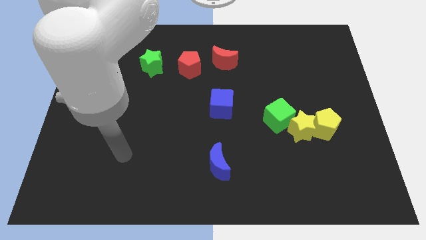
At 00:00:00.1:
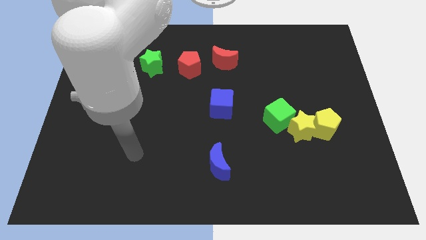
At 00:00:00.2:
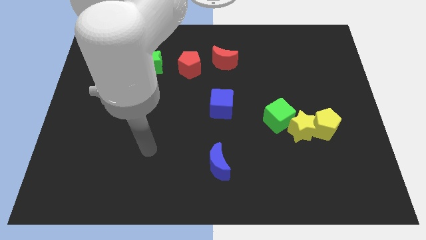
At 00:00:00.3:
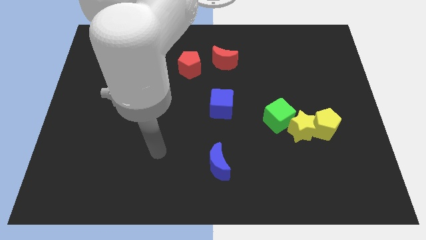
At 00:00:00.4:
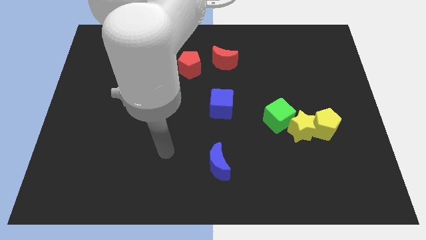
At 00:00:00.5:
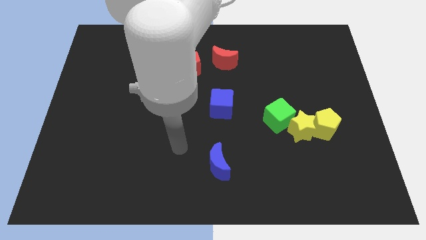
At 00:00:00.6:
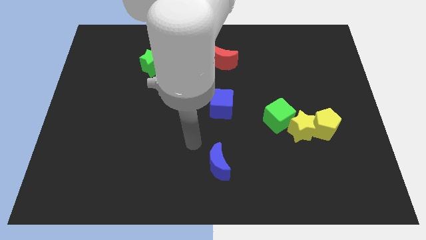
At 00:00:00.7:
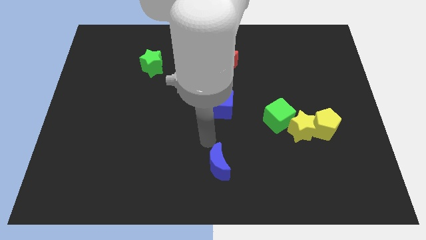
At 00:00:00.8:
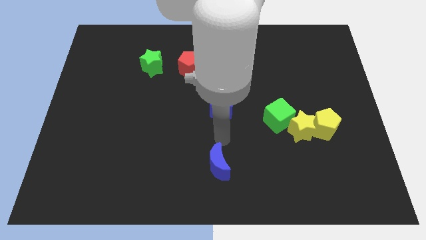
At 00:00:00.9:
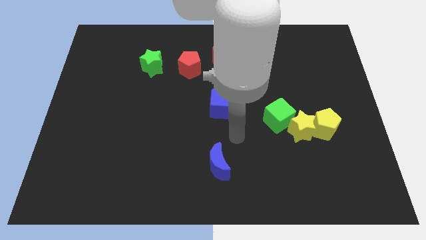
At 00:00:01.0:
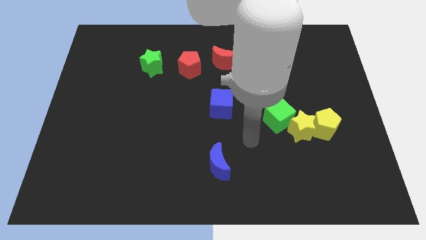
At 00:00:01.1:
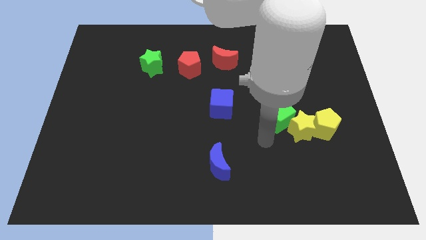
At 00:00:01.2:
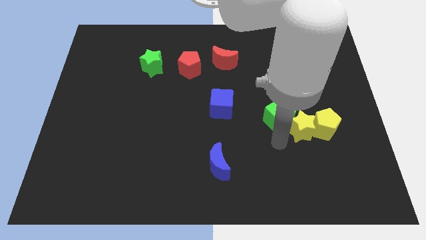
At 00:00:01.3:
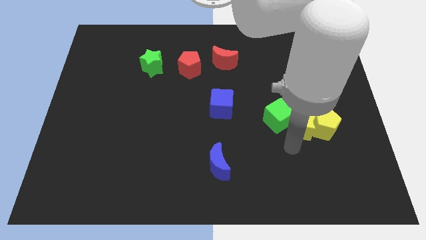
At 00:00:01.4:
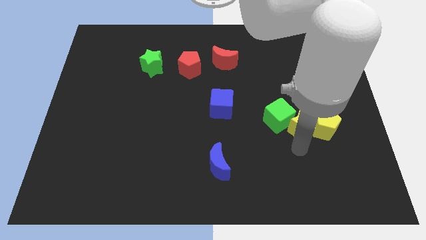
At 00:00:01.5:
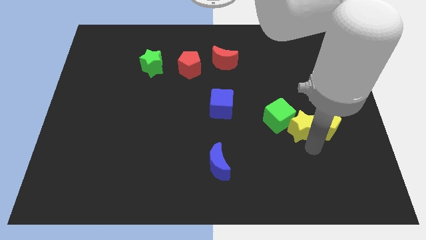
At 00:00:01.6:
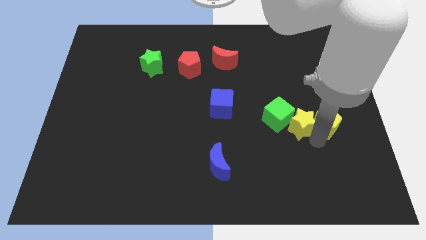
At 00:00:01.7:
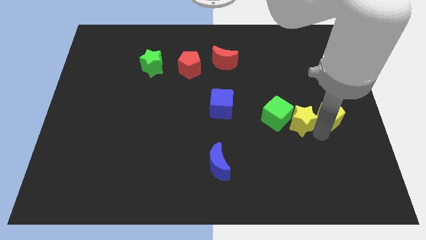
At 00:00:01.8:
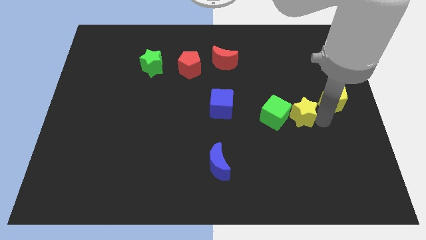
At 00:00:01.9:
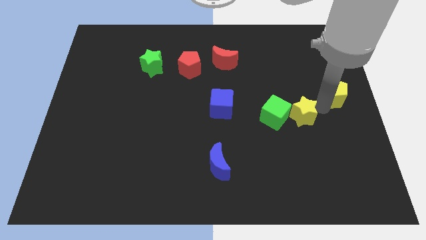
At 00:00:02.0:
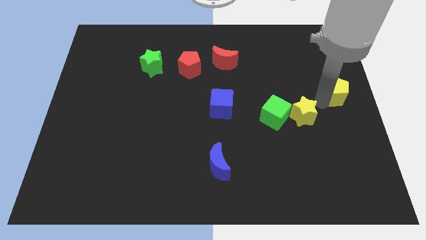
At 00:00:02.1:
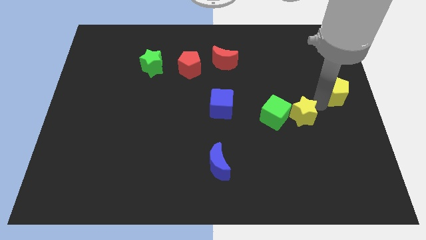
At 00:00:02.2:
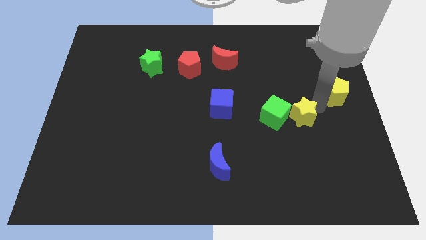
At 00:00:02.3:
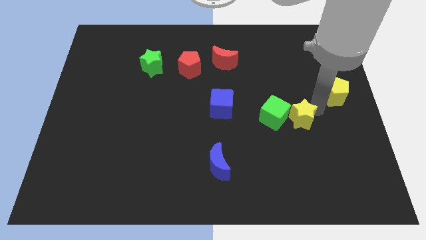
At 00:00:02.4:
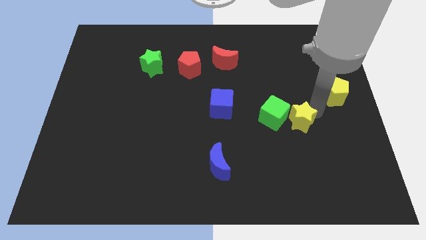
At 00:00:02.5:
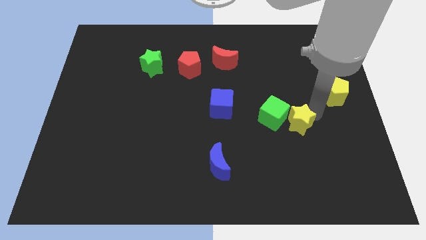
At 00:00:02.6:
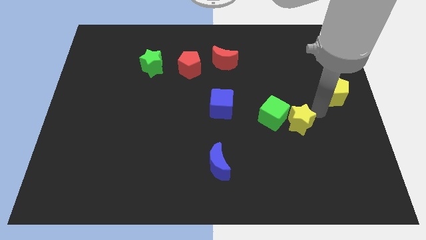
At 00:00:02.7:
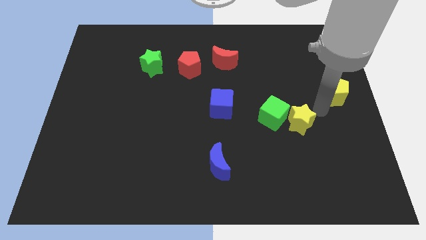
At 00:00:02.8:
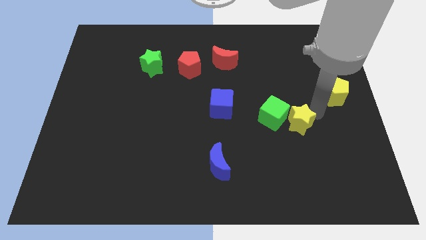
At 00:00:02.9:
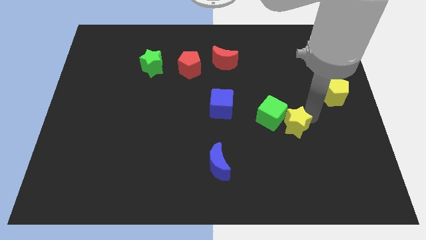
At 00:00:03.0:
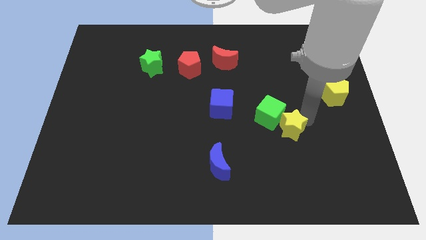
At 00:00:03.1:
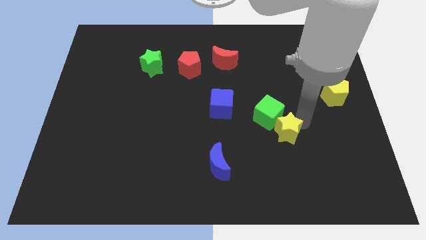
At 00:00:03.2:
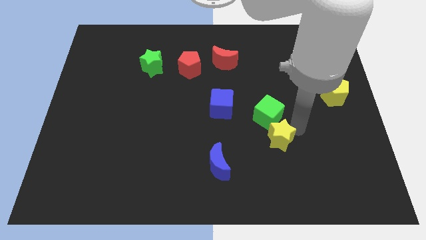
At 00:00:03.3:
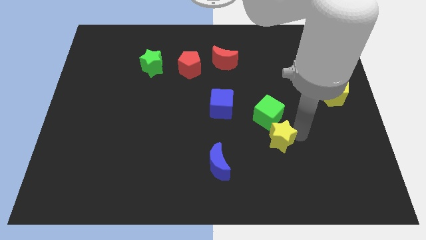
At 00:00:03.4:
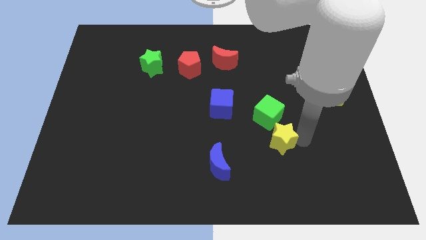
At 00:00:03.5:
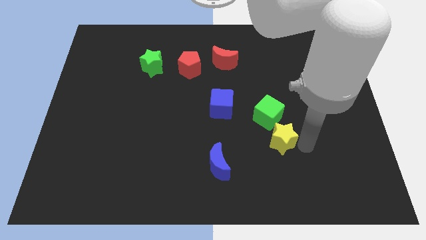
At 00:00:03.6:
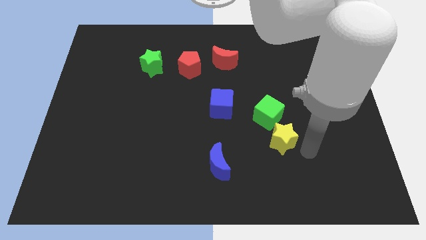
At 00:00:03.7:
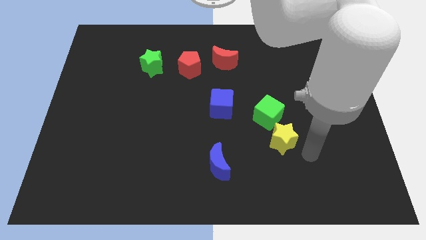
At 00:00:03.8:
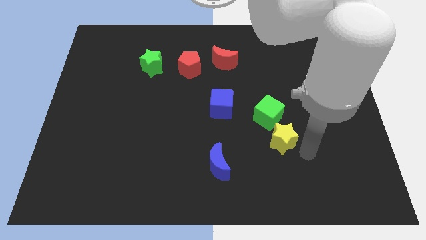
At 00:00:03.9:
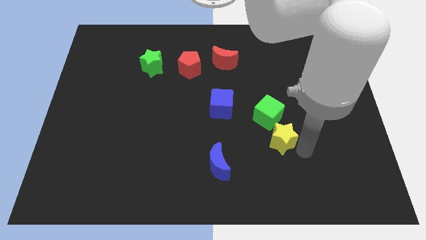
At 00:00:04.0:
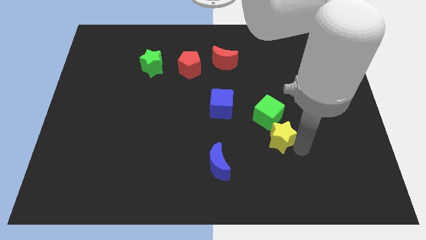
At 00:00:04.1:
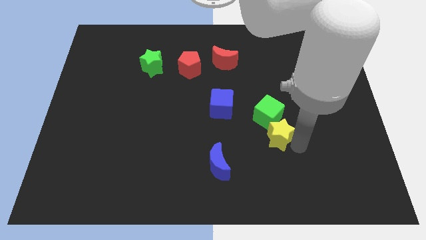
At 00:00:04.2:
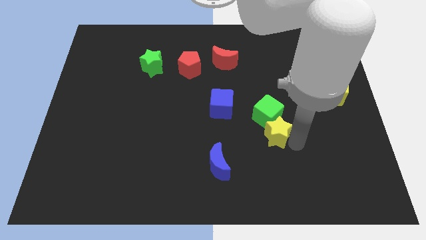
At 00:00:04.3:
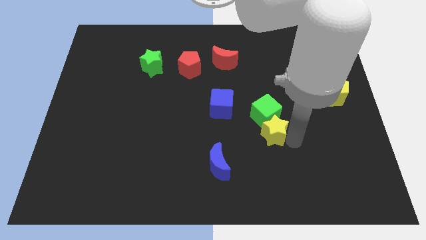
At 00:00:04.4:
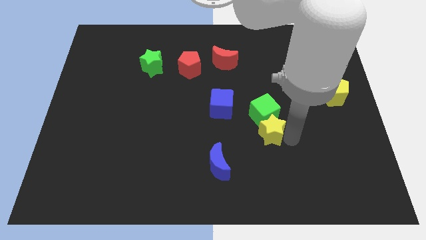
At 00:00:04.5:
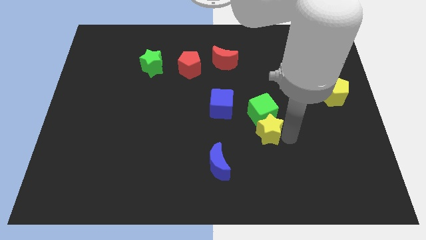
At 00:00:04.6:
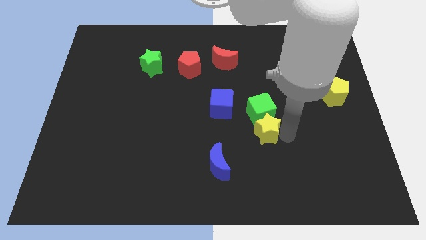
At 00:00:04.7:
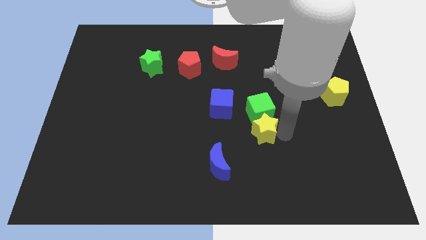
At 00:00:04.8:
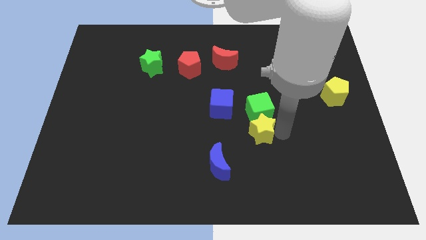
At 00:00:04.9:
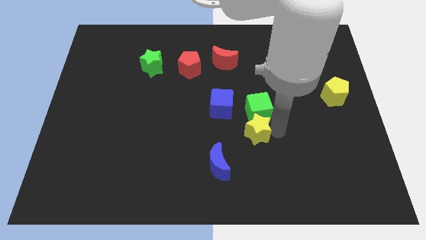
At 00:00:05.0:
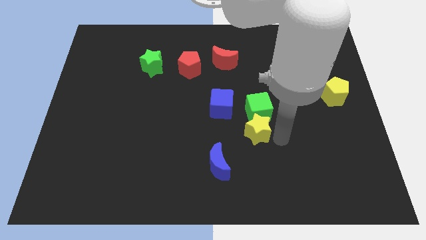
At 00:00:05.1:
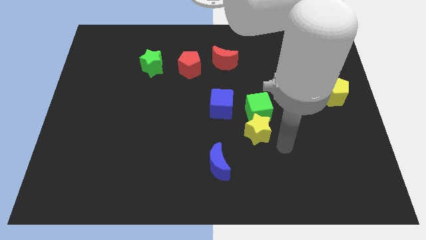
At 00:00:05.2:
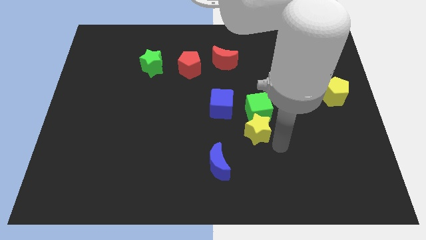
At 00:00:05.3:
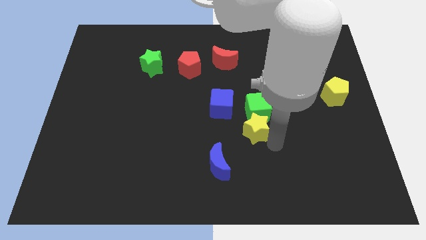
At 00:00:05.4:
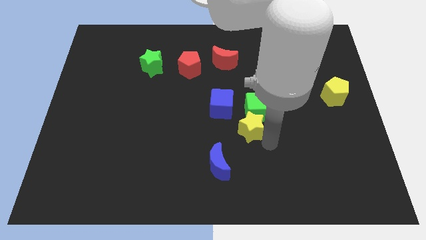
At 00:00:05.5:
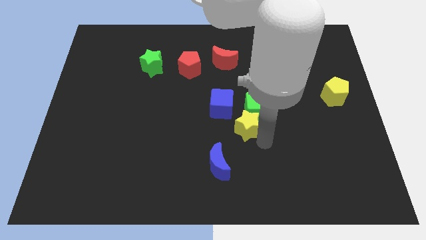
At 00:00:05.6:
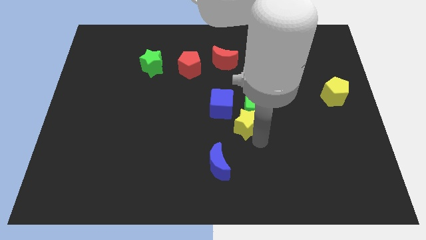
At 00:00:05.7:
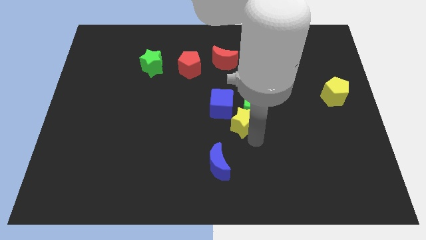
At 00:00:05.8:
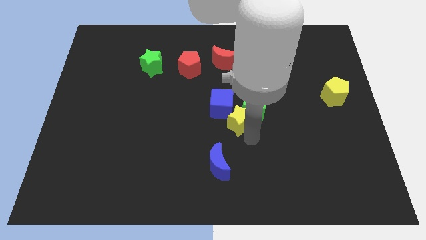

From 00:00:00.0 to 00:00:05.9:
move the yellow star left of the green cube
